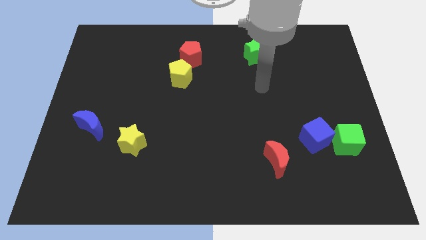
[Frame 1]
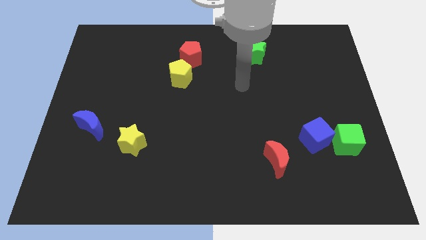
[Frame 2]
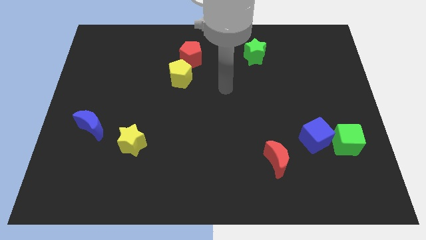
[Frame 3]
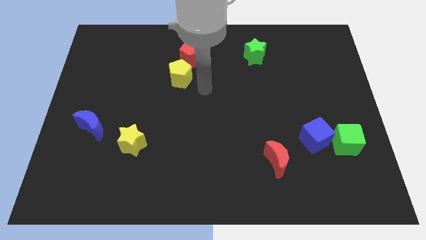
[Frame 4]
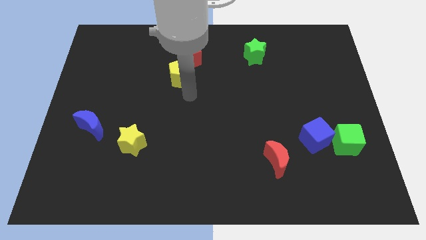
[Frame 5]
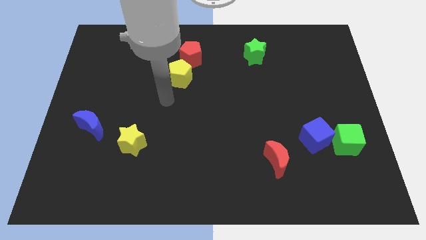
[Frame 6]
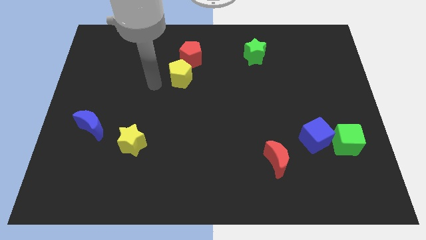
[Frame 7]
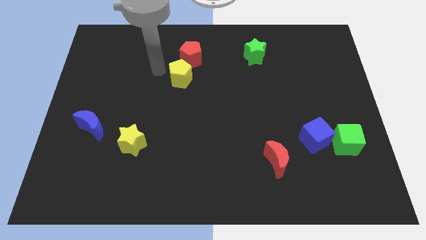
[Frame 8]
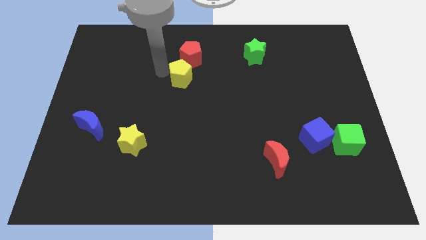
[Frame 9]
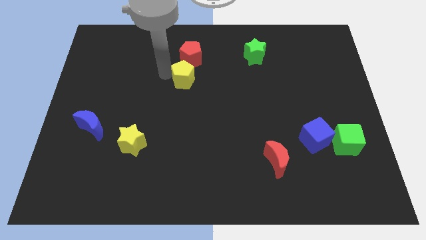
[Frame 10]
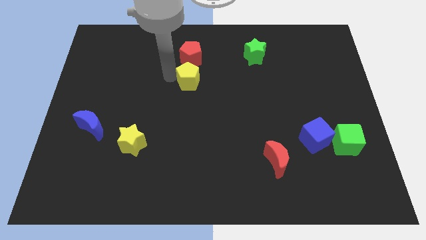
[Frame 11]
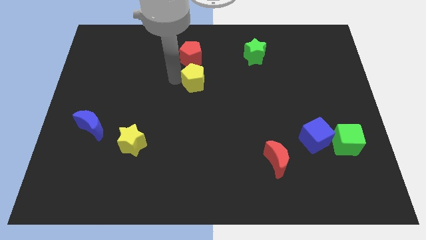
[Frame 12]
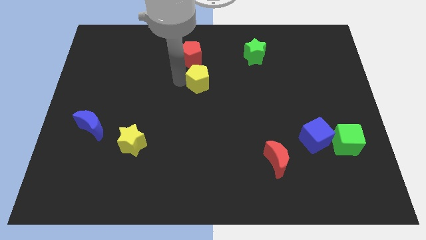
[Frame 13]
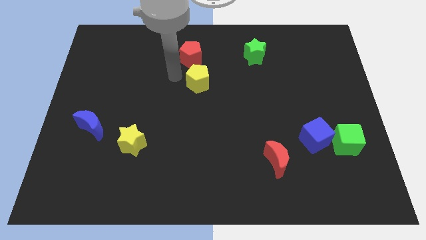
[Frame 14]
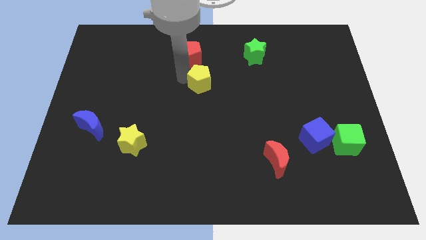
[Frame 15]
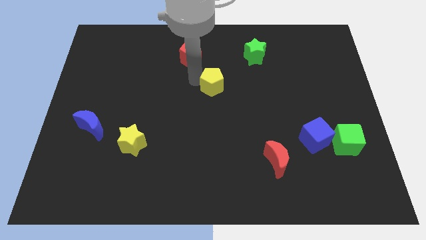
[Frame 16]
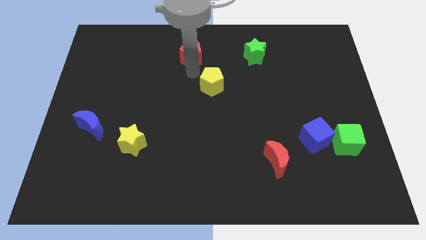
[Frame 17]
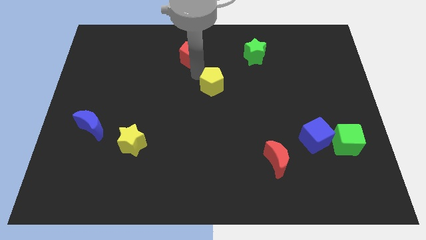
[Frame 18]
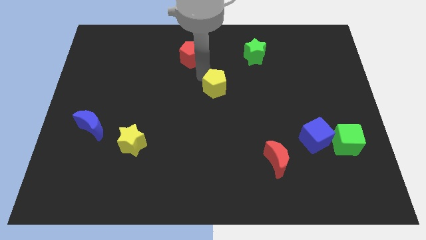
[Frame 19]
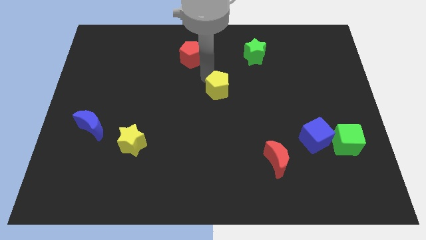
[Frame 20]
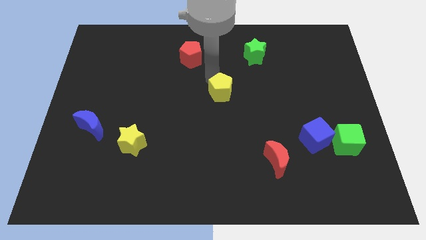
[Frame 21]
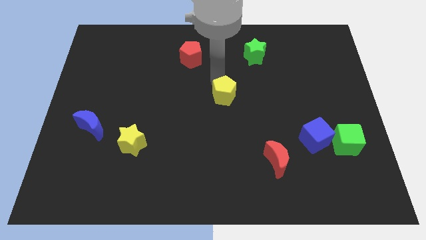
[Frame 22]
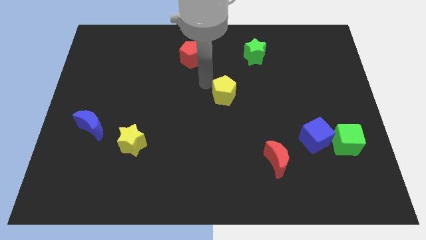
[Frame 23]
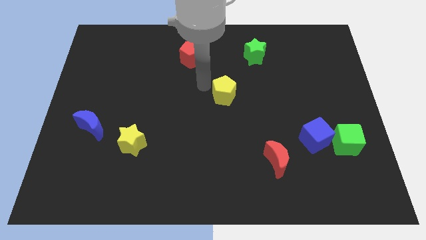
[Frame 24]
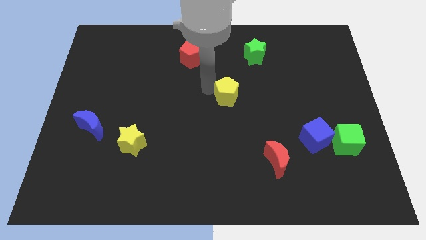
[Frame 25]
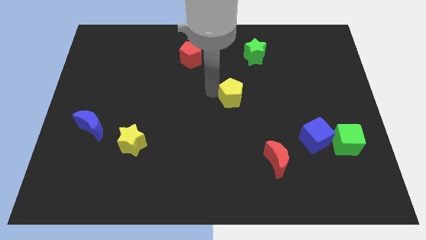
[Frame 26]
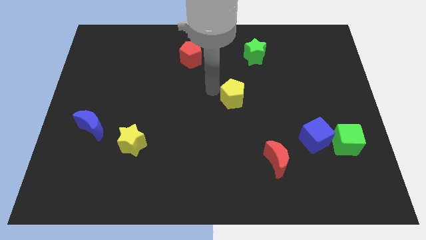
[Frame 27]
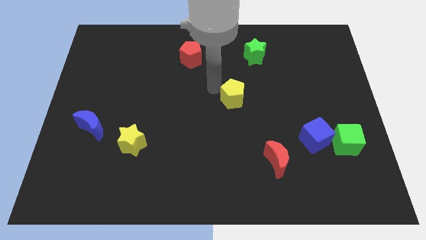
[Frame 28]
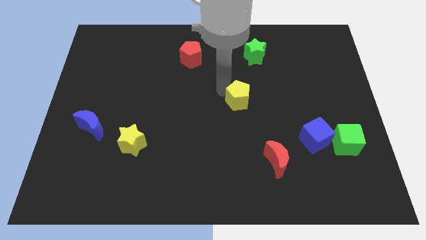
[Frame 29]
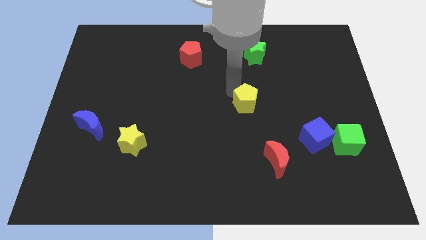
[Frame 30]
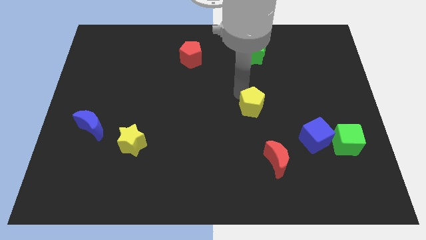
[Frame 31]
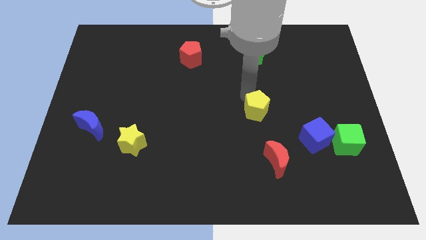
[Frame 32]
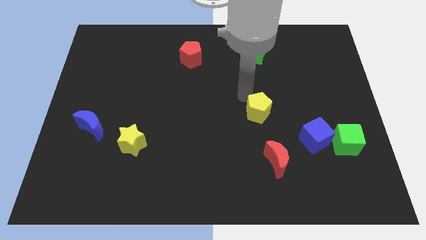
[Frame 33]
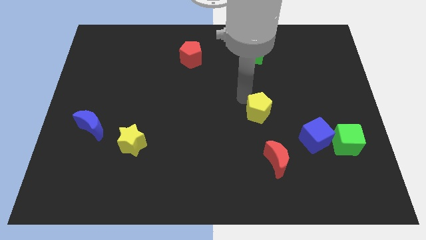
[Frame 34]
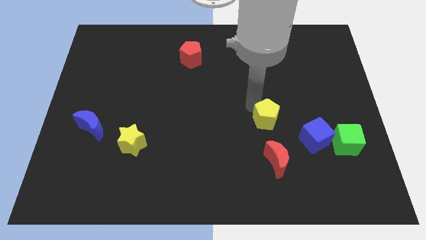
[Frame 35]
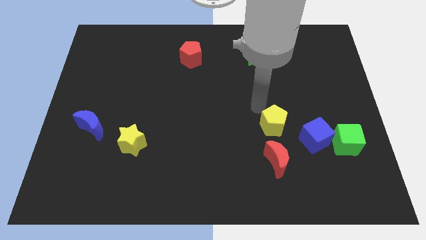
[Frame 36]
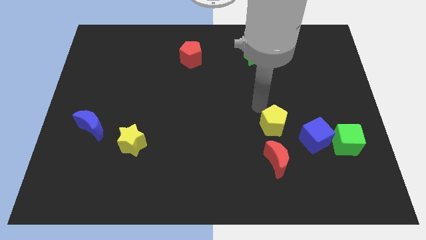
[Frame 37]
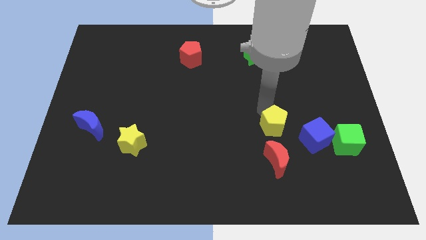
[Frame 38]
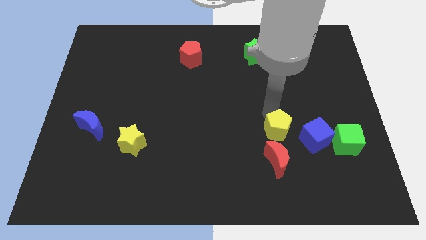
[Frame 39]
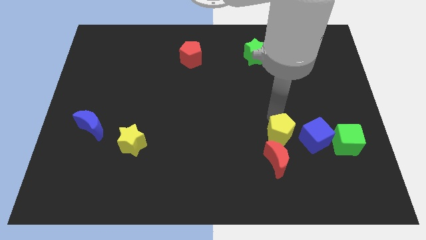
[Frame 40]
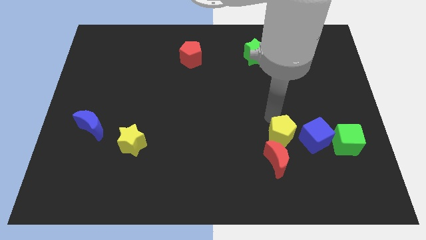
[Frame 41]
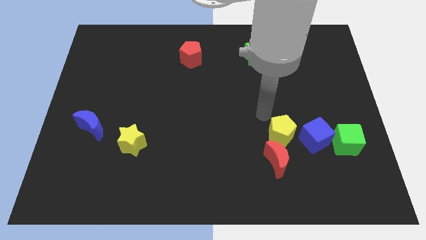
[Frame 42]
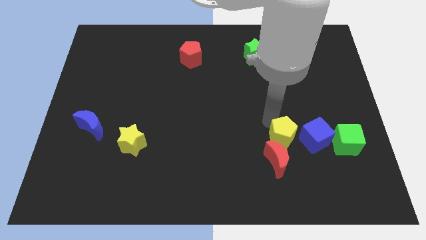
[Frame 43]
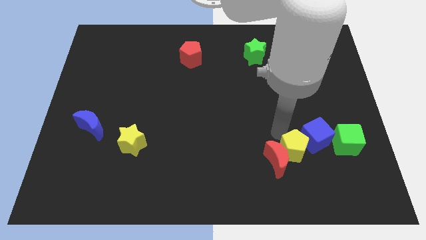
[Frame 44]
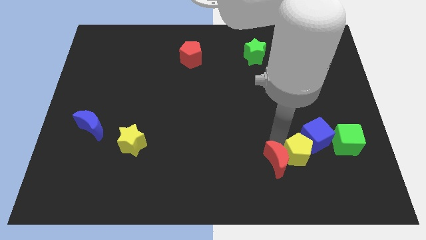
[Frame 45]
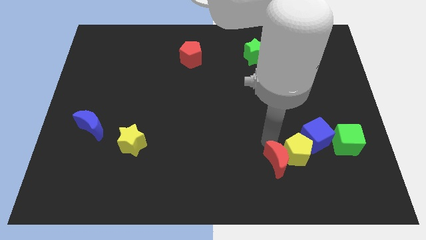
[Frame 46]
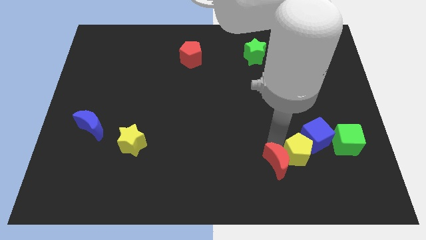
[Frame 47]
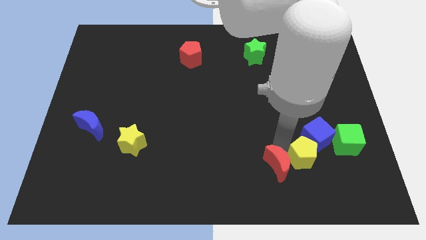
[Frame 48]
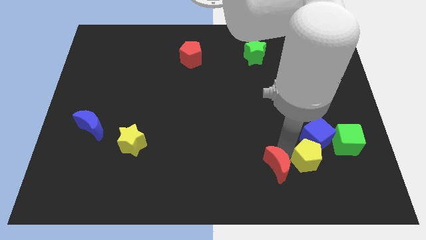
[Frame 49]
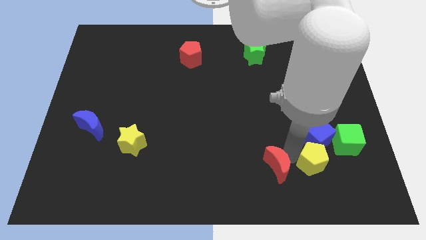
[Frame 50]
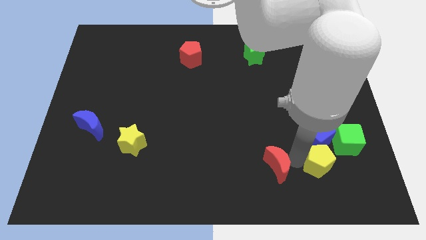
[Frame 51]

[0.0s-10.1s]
slide the yellow pentagon to the bottom right of the blue cube

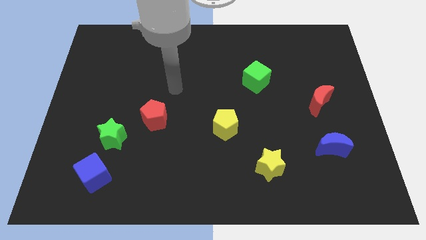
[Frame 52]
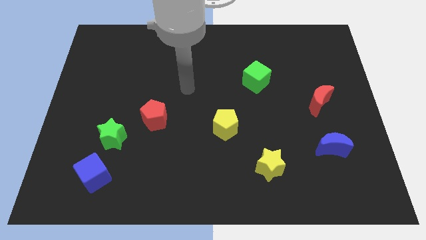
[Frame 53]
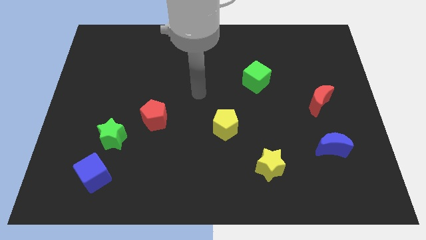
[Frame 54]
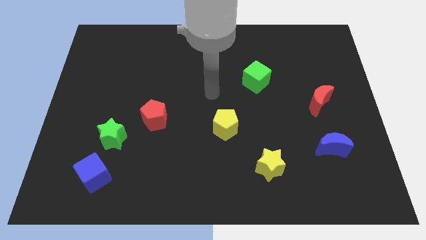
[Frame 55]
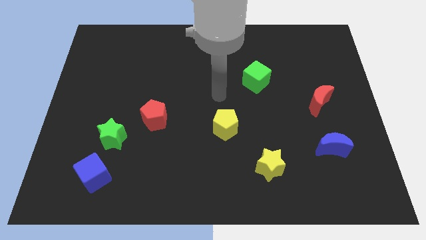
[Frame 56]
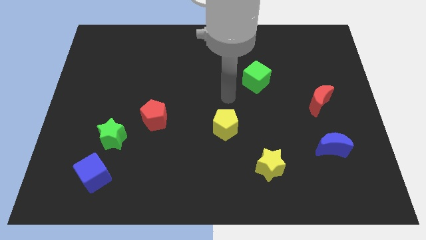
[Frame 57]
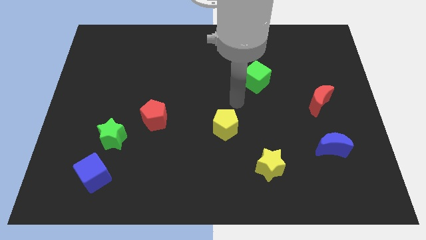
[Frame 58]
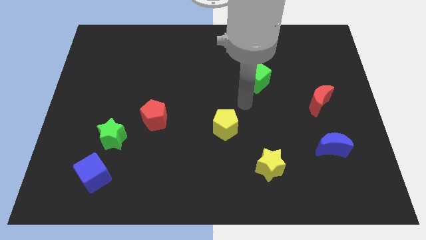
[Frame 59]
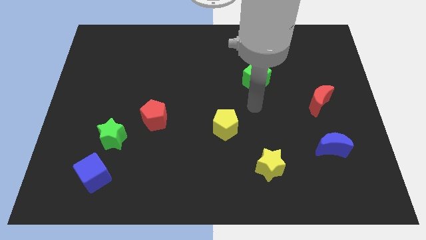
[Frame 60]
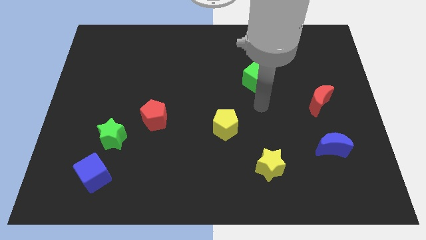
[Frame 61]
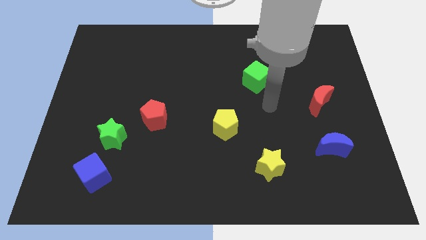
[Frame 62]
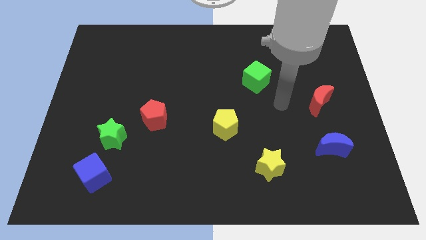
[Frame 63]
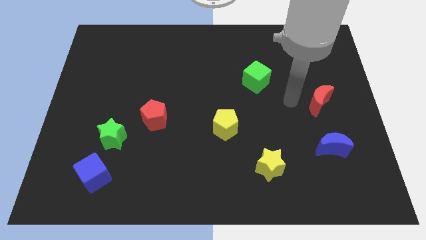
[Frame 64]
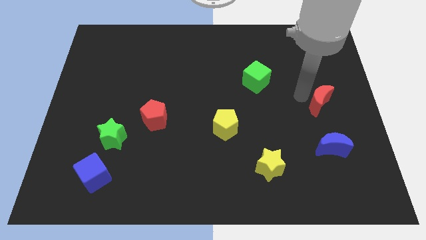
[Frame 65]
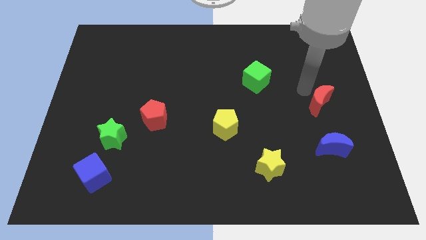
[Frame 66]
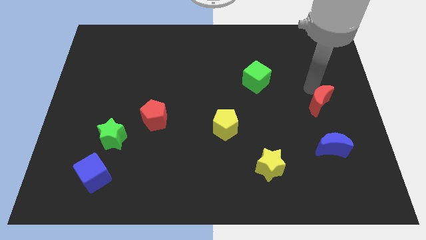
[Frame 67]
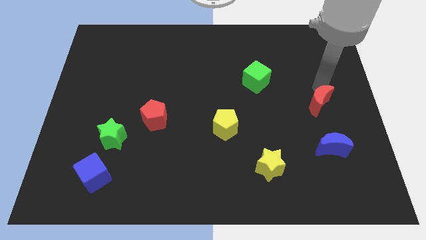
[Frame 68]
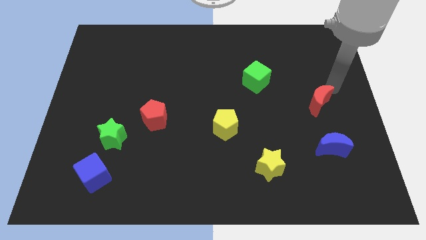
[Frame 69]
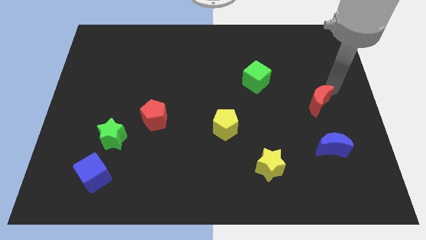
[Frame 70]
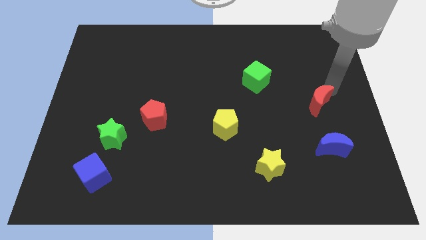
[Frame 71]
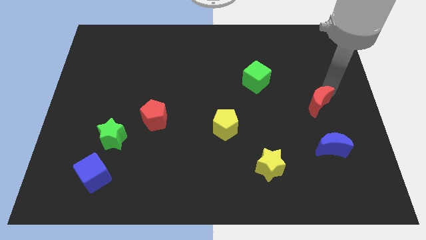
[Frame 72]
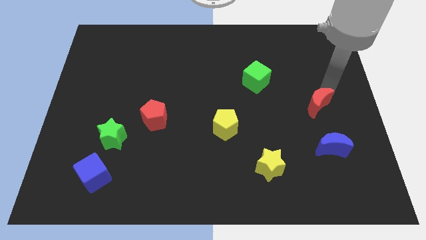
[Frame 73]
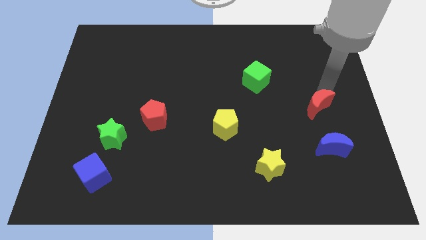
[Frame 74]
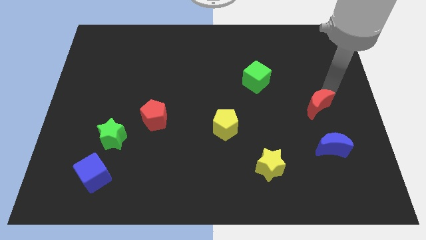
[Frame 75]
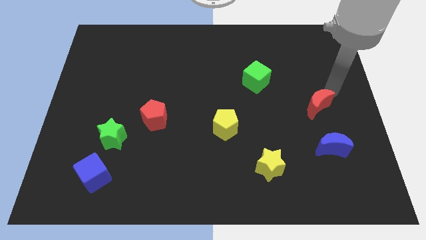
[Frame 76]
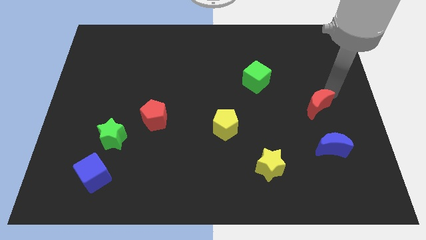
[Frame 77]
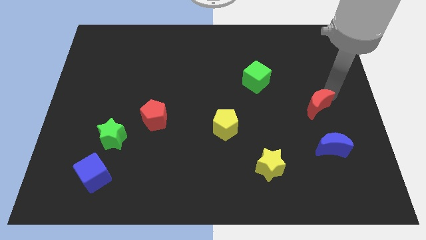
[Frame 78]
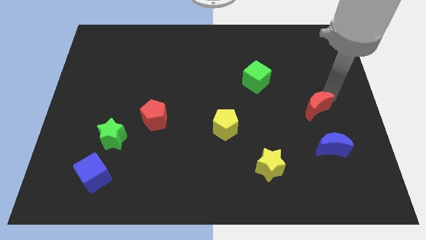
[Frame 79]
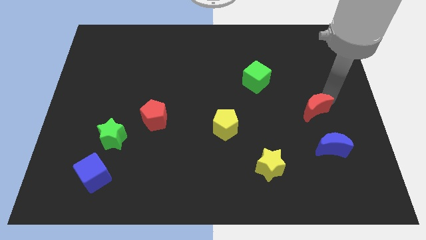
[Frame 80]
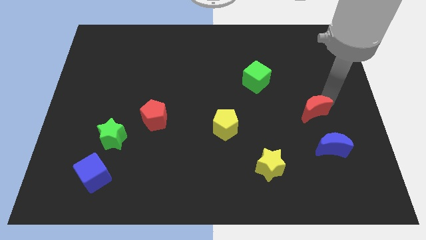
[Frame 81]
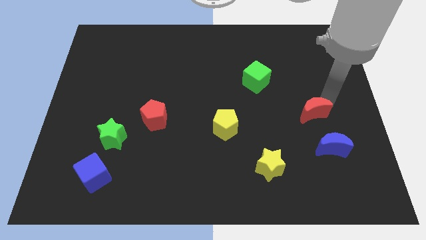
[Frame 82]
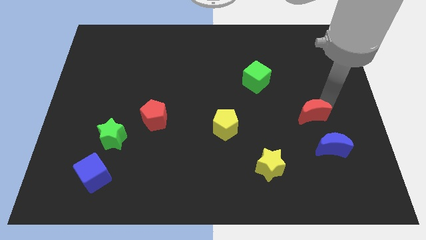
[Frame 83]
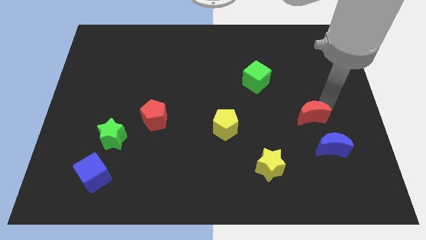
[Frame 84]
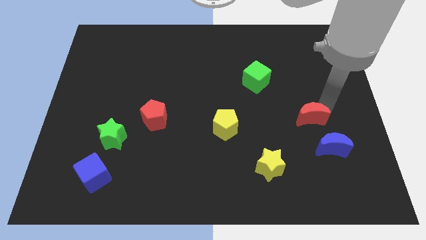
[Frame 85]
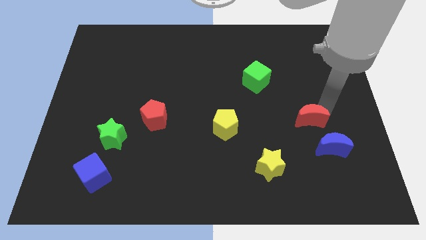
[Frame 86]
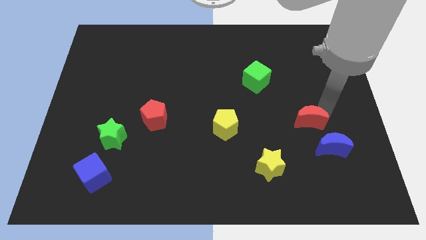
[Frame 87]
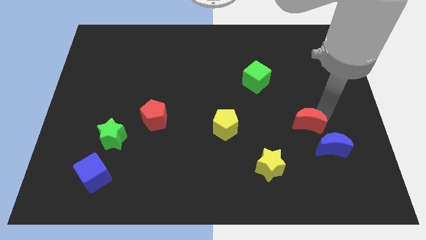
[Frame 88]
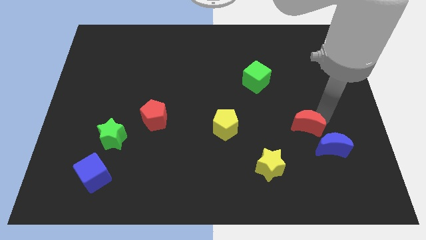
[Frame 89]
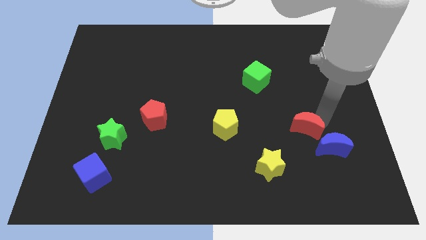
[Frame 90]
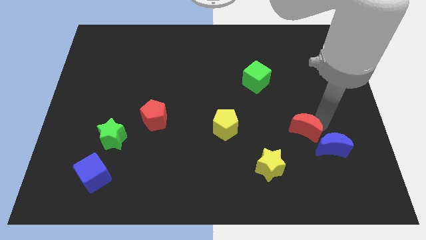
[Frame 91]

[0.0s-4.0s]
push the red moon to the top right side of the yellow star
